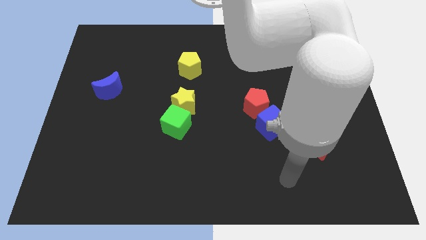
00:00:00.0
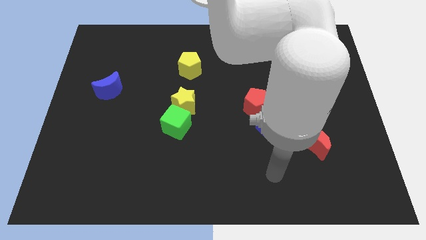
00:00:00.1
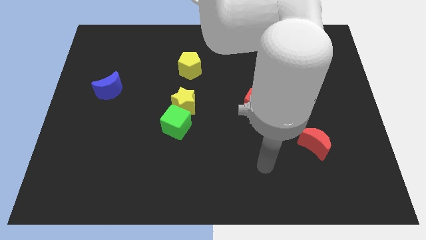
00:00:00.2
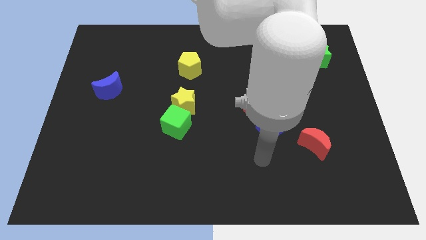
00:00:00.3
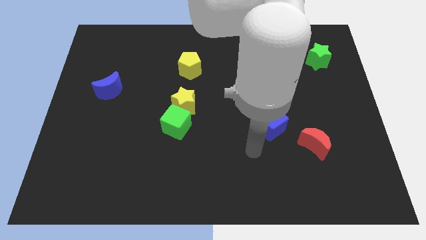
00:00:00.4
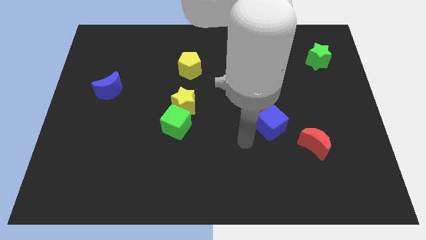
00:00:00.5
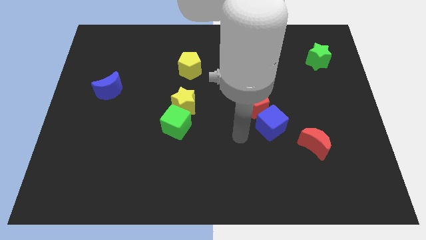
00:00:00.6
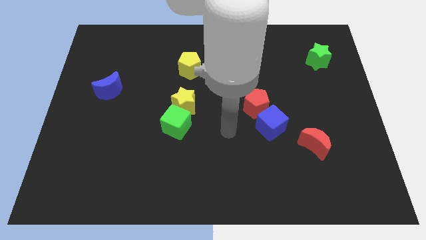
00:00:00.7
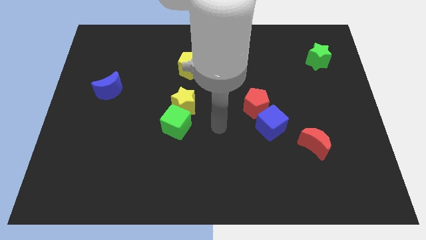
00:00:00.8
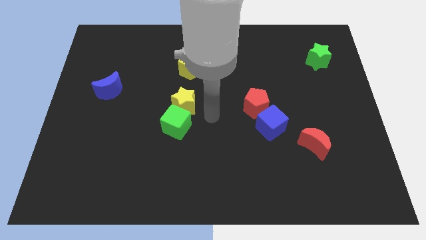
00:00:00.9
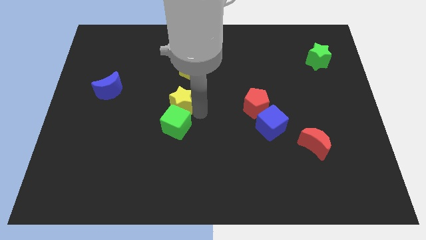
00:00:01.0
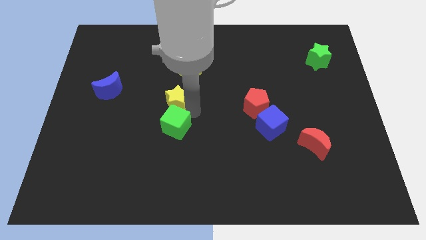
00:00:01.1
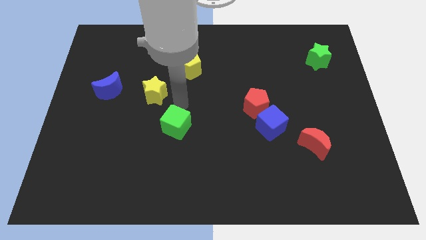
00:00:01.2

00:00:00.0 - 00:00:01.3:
separate the green cube from the yellow star

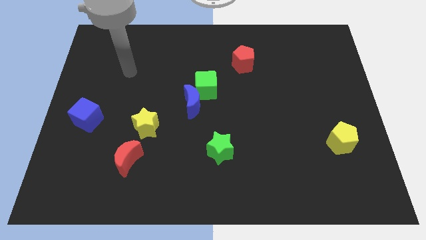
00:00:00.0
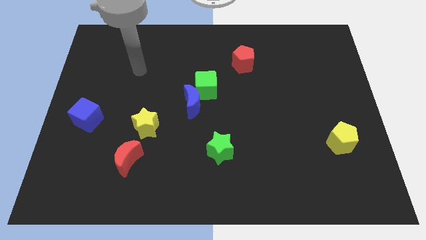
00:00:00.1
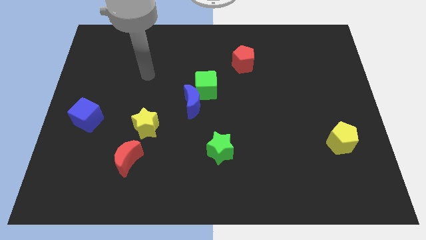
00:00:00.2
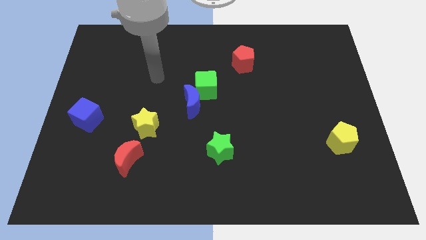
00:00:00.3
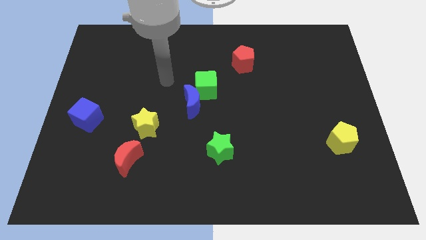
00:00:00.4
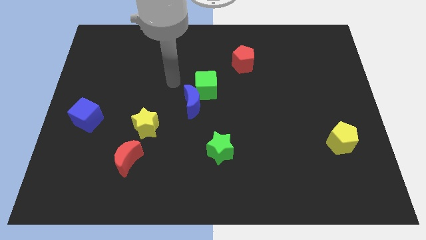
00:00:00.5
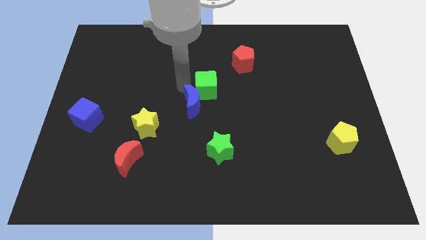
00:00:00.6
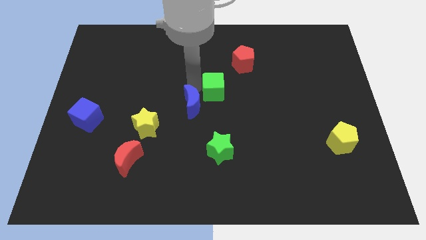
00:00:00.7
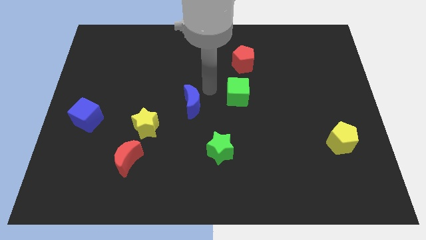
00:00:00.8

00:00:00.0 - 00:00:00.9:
pull the blue moon apart from the green cube

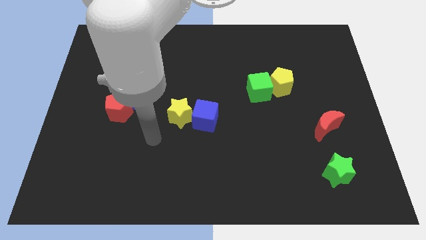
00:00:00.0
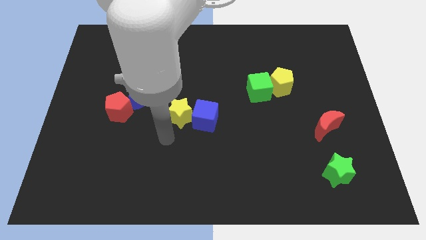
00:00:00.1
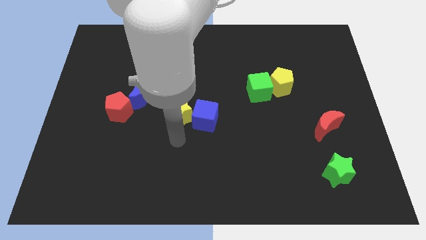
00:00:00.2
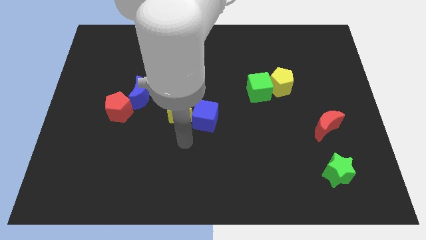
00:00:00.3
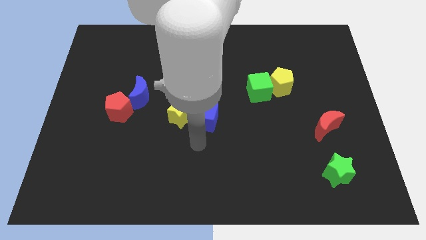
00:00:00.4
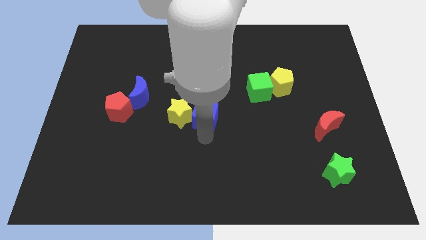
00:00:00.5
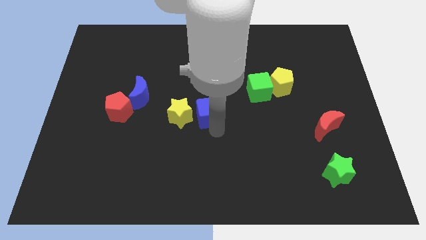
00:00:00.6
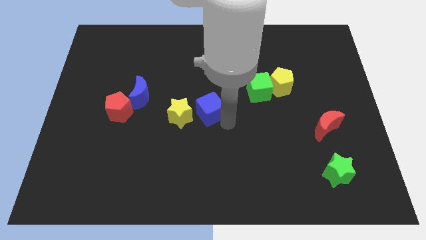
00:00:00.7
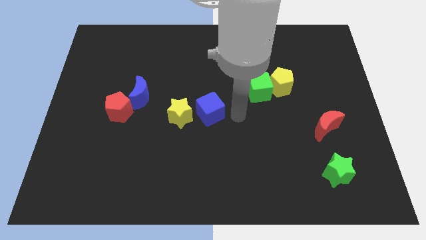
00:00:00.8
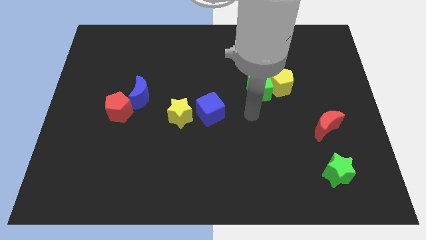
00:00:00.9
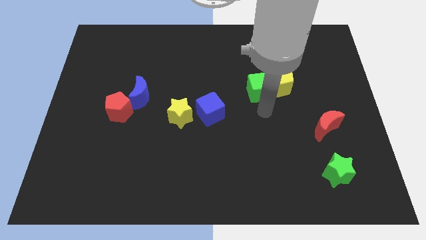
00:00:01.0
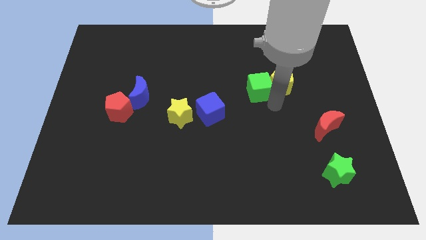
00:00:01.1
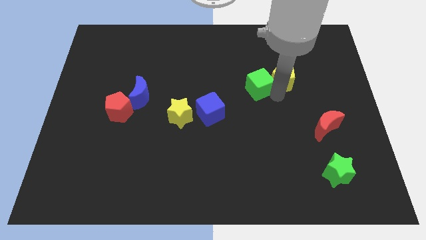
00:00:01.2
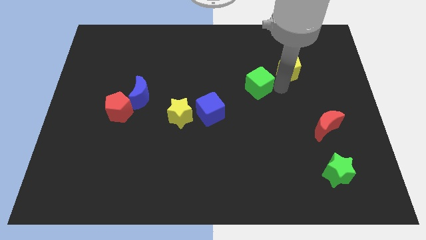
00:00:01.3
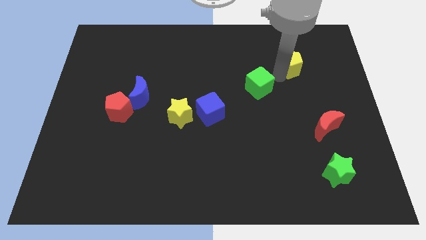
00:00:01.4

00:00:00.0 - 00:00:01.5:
pull the green cube apart from the yellow pentagon

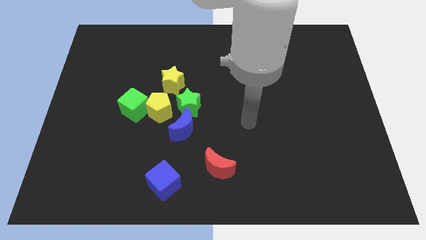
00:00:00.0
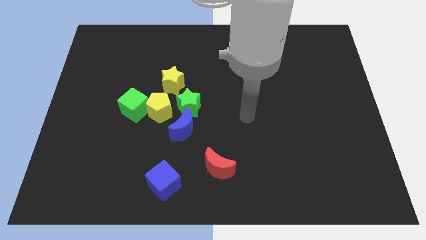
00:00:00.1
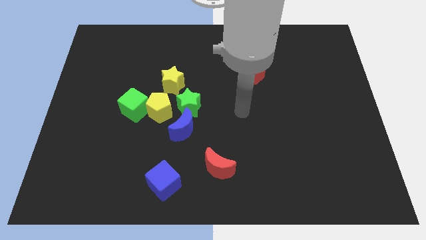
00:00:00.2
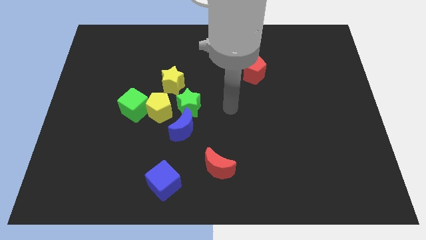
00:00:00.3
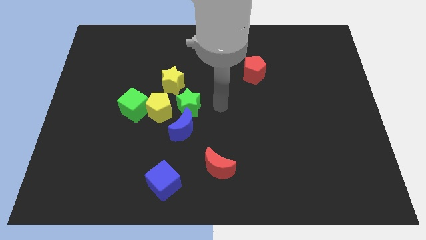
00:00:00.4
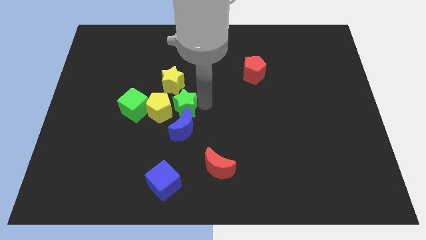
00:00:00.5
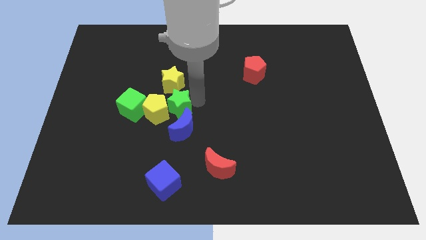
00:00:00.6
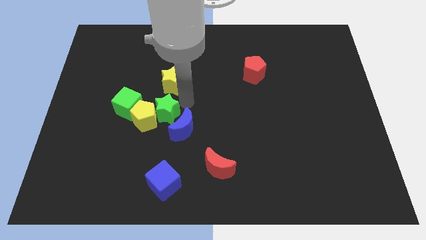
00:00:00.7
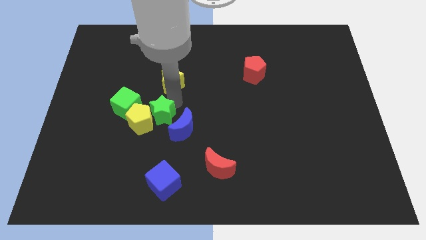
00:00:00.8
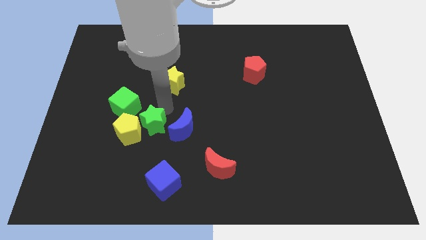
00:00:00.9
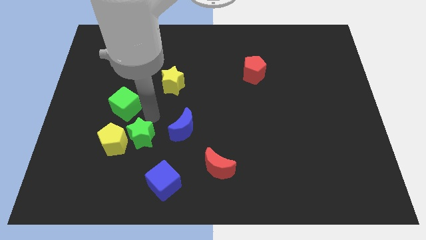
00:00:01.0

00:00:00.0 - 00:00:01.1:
move the green cube away from the yellow pentagon

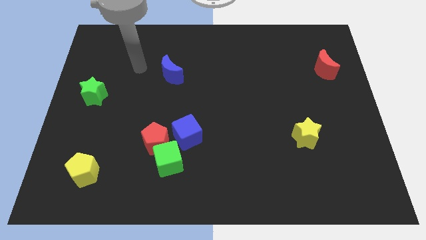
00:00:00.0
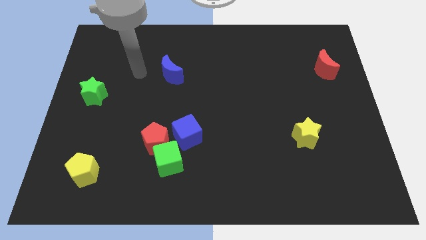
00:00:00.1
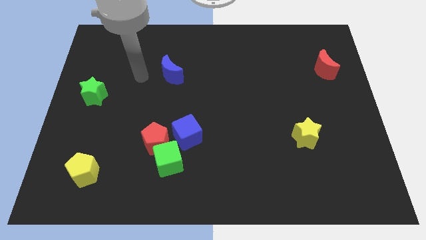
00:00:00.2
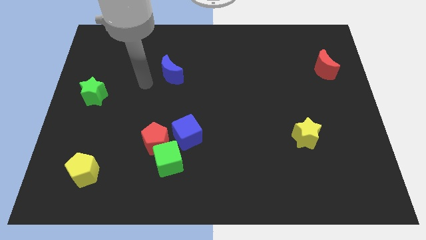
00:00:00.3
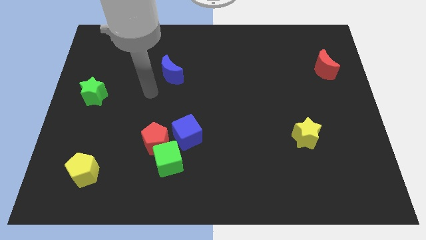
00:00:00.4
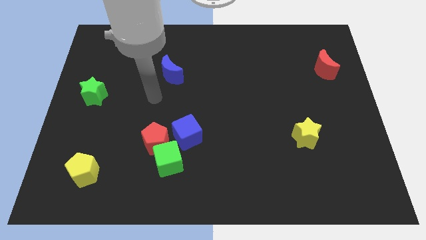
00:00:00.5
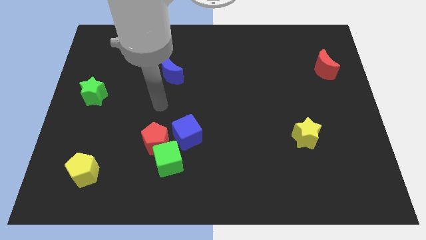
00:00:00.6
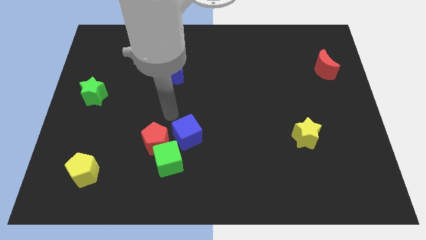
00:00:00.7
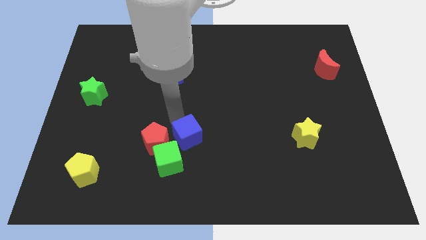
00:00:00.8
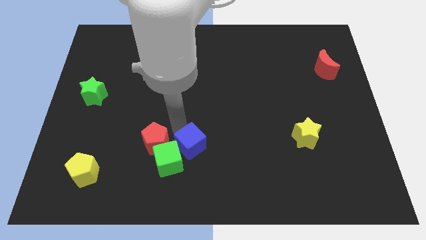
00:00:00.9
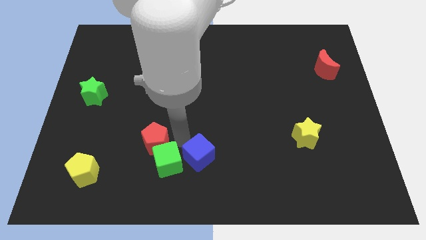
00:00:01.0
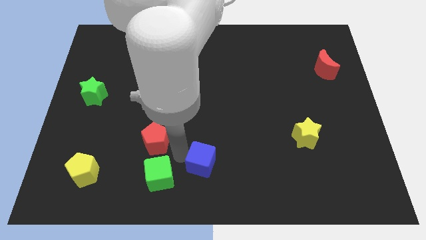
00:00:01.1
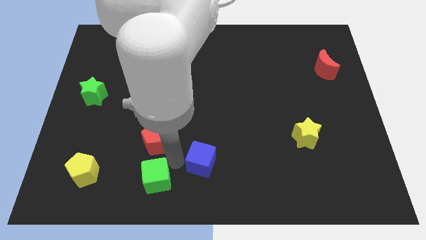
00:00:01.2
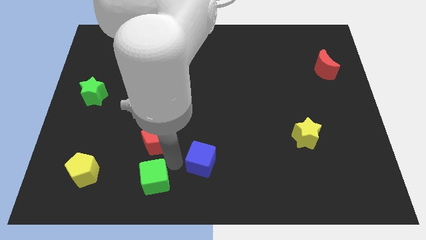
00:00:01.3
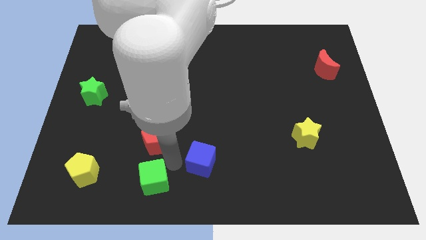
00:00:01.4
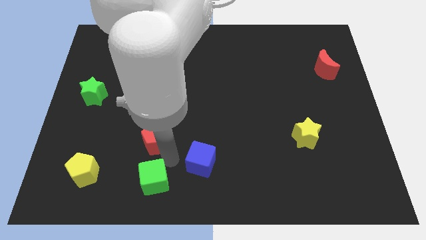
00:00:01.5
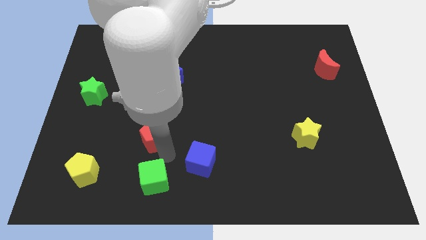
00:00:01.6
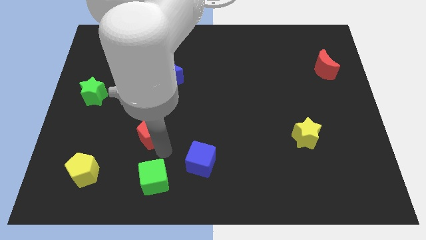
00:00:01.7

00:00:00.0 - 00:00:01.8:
pull the red pentagon apart from the green cube and blue cube

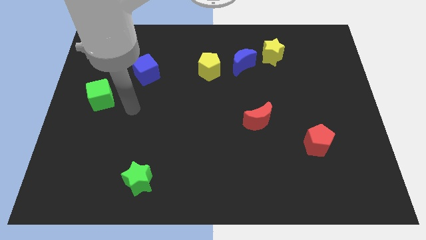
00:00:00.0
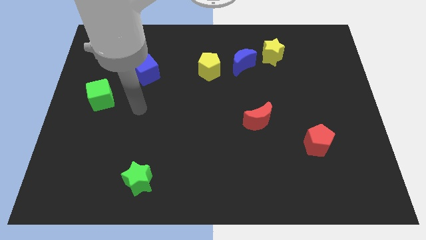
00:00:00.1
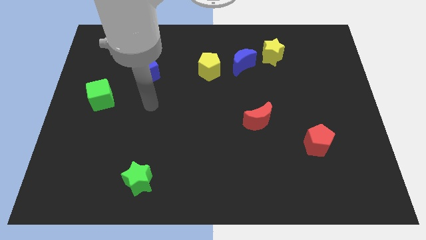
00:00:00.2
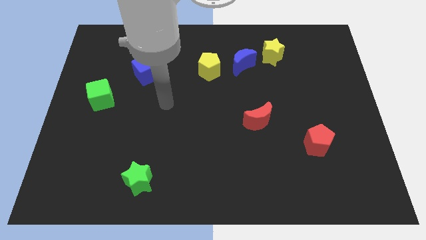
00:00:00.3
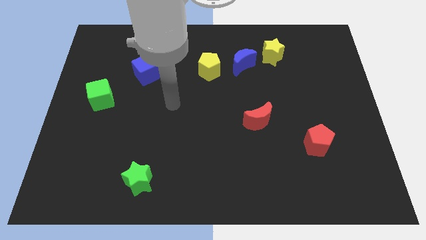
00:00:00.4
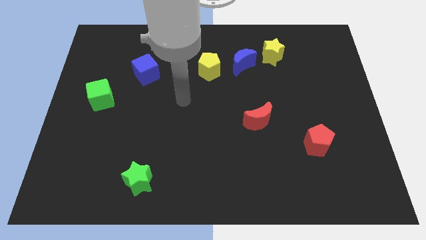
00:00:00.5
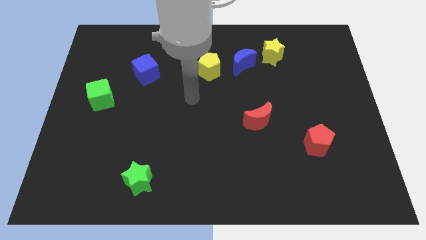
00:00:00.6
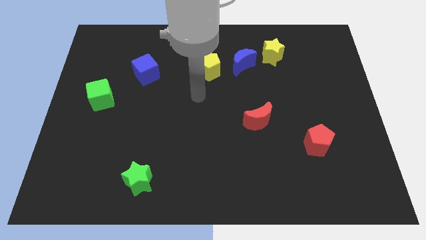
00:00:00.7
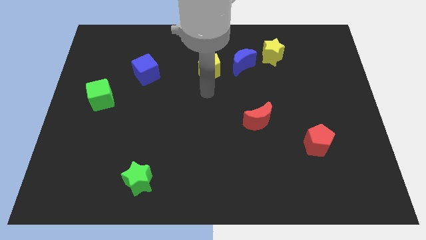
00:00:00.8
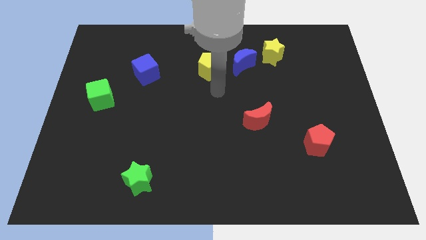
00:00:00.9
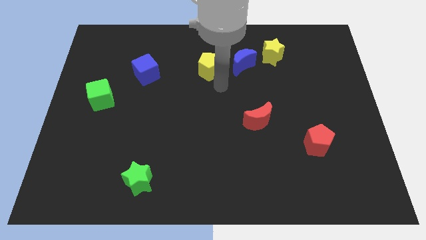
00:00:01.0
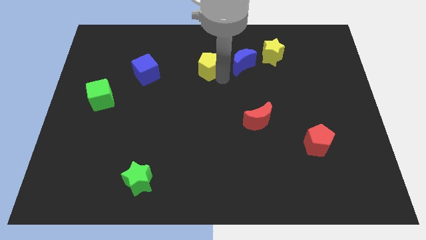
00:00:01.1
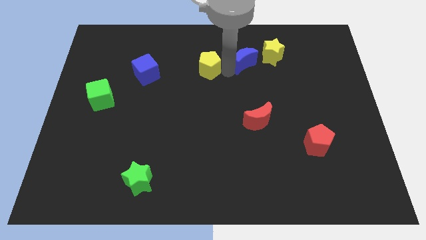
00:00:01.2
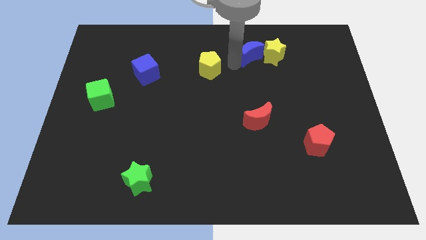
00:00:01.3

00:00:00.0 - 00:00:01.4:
move the yellow pentagon away from the blue moon

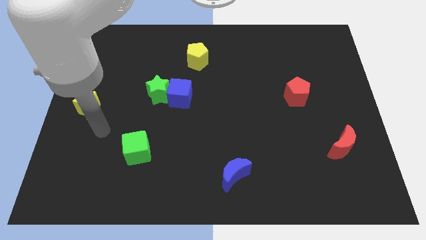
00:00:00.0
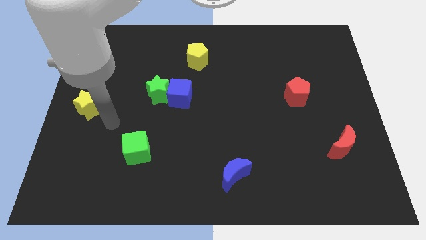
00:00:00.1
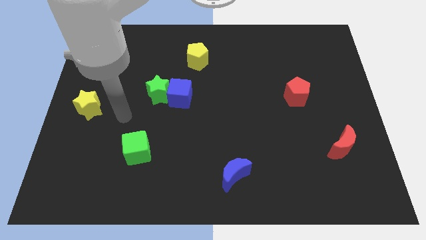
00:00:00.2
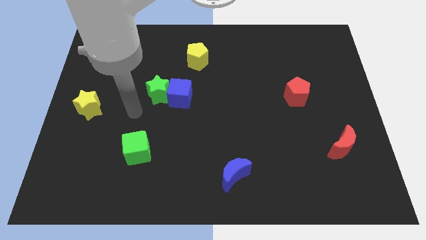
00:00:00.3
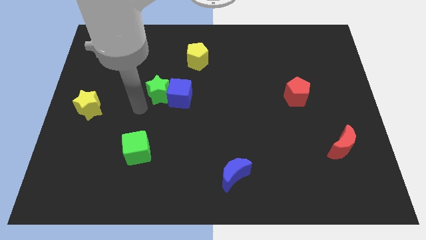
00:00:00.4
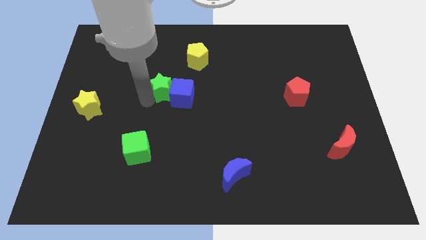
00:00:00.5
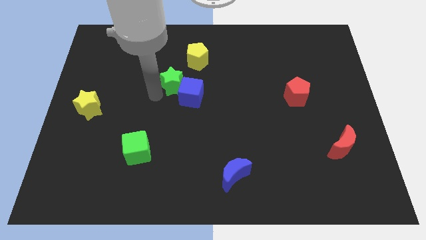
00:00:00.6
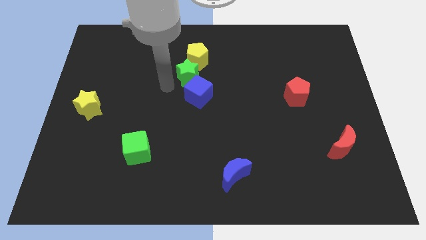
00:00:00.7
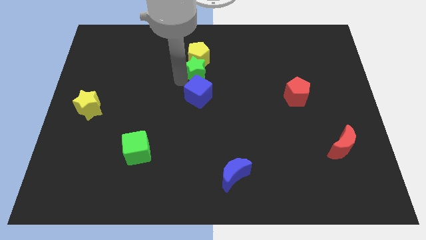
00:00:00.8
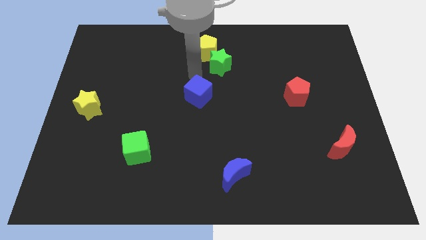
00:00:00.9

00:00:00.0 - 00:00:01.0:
separate the blue cube from the green star

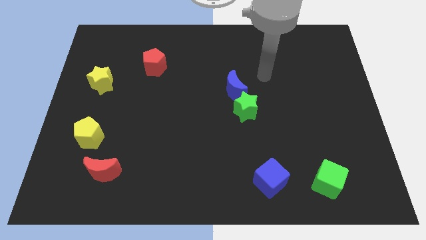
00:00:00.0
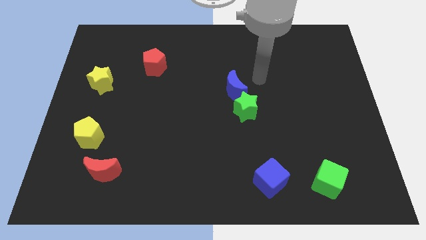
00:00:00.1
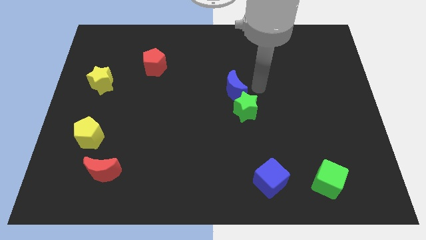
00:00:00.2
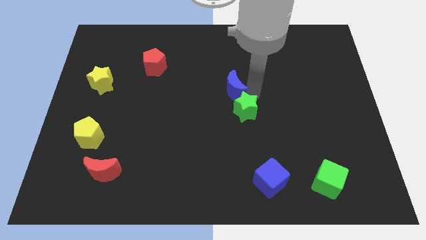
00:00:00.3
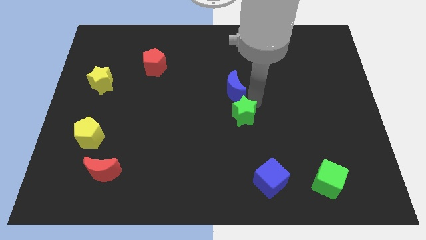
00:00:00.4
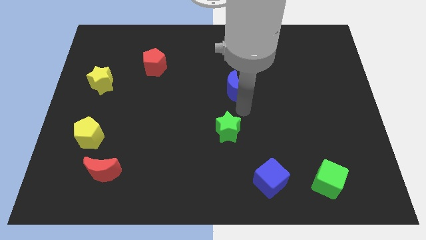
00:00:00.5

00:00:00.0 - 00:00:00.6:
move the blue moon away from the green star
